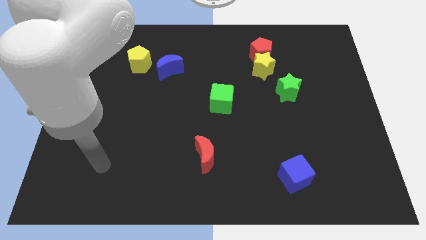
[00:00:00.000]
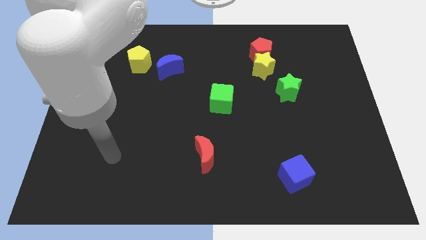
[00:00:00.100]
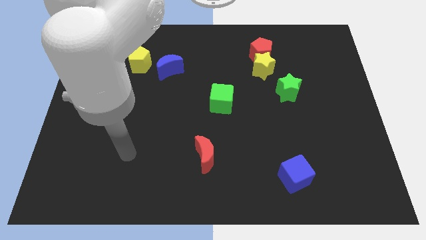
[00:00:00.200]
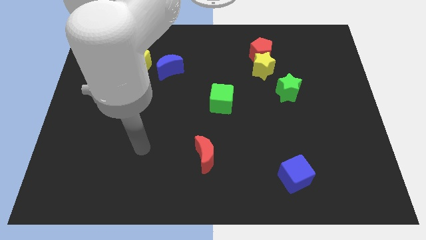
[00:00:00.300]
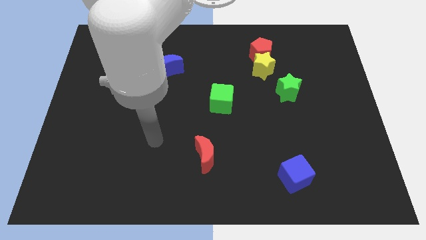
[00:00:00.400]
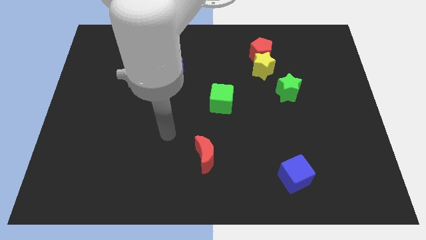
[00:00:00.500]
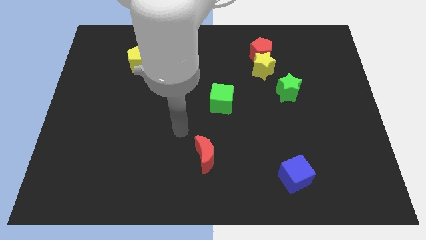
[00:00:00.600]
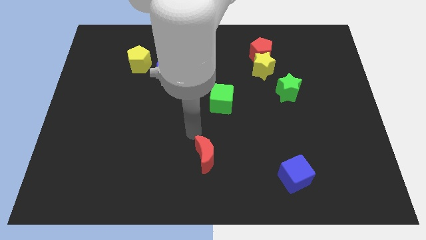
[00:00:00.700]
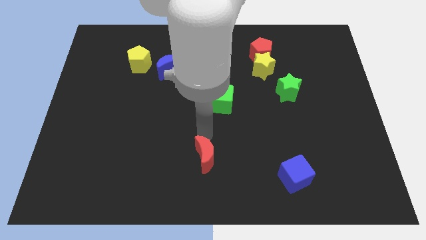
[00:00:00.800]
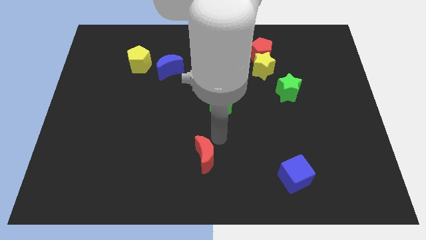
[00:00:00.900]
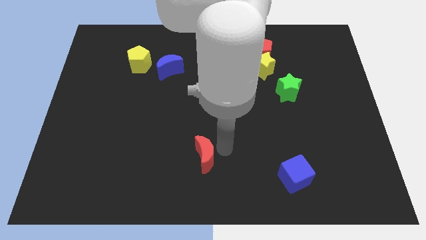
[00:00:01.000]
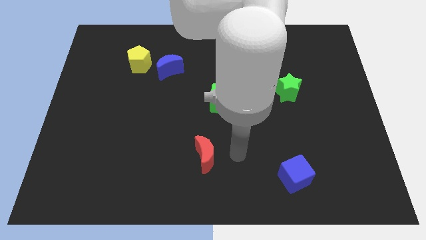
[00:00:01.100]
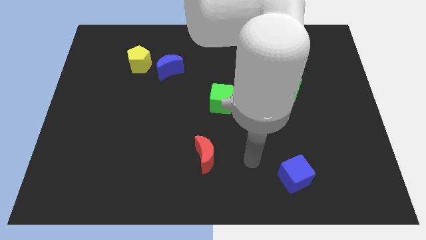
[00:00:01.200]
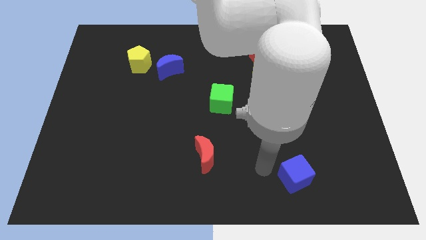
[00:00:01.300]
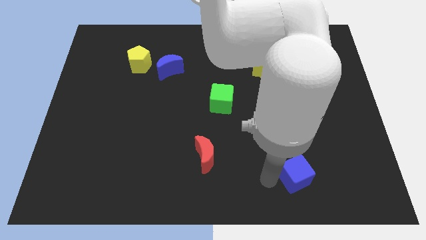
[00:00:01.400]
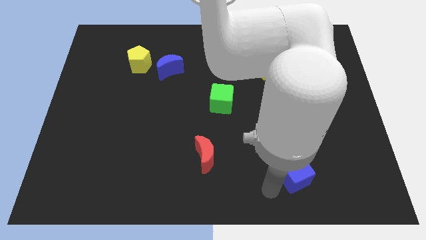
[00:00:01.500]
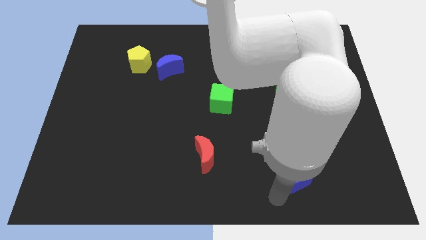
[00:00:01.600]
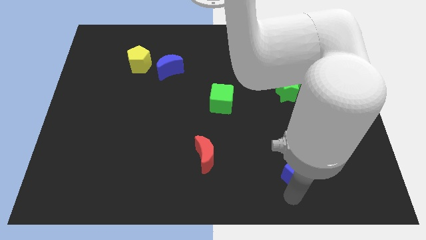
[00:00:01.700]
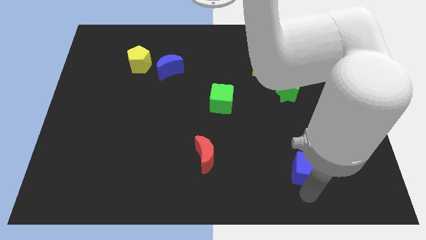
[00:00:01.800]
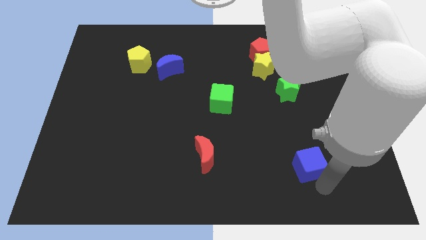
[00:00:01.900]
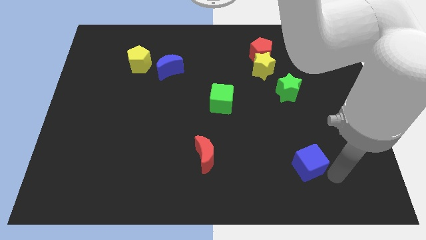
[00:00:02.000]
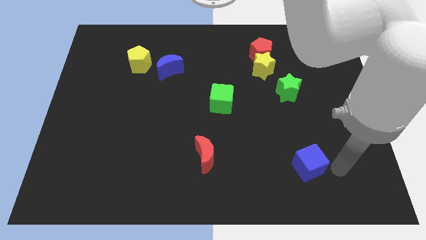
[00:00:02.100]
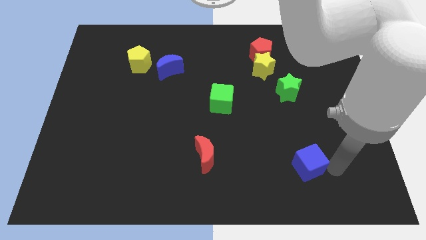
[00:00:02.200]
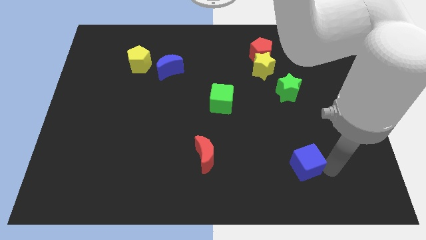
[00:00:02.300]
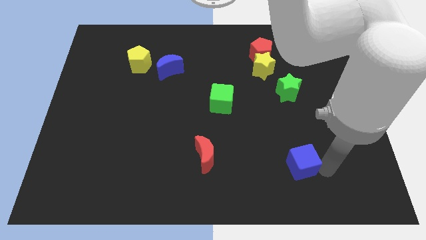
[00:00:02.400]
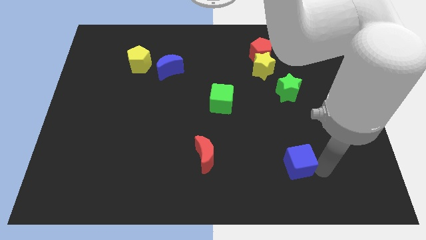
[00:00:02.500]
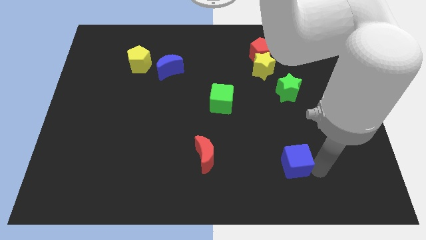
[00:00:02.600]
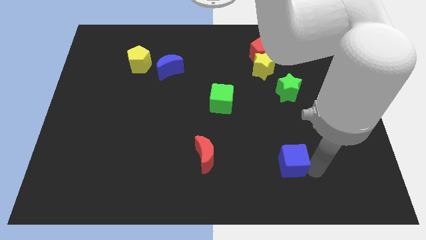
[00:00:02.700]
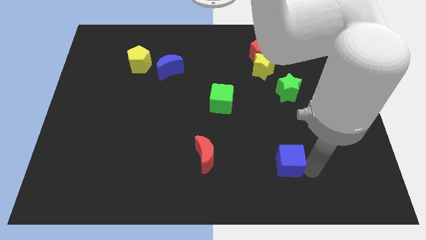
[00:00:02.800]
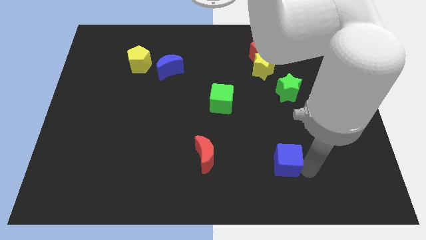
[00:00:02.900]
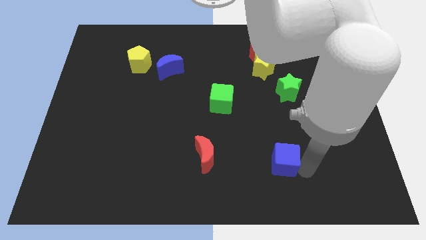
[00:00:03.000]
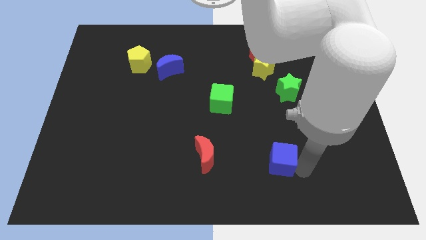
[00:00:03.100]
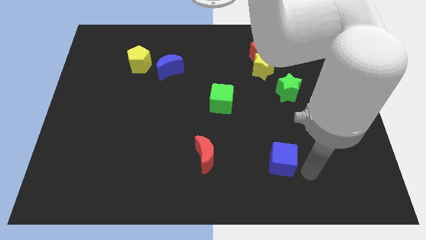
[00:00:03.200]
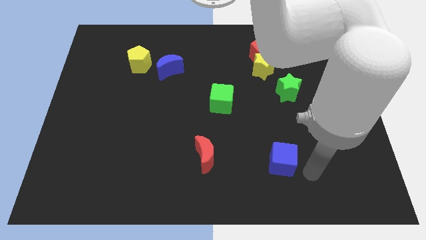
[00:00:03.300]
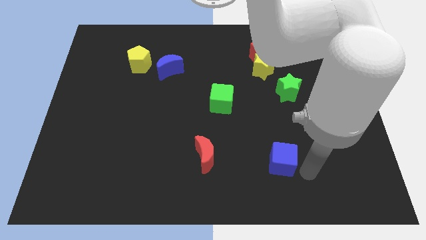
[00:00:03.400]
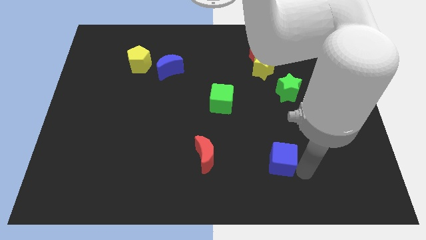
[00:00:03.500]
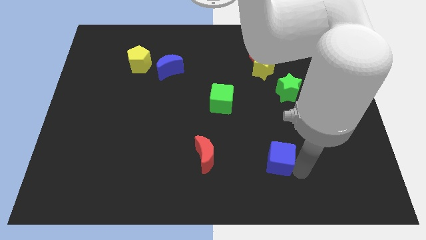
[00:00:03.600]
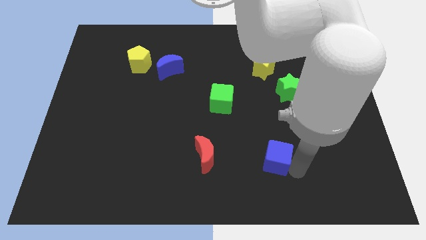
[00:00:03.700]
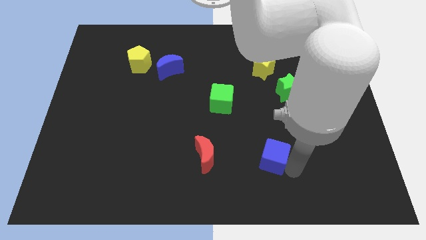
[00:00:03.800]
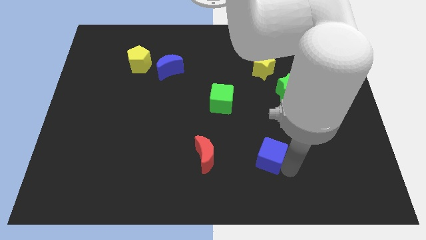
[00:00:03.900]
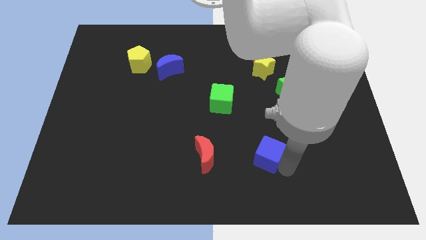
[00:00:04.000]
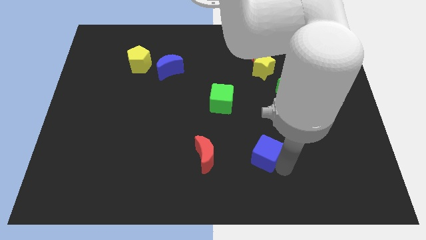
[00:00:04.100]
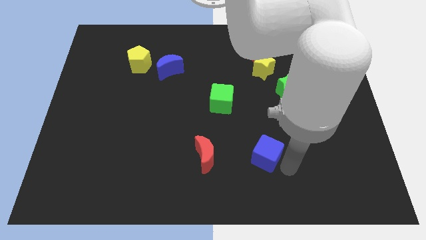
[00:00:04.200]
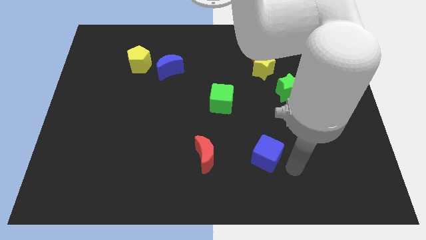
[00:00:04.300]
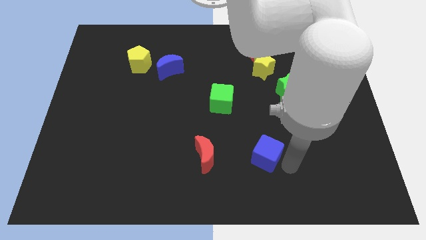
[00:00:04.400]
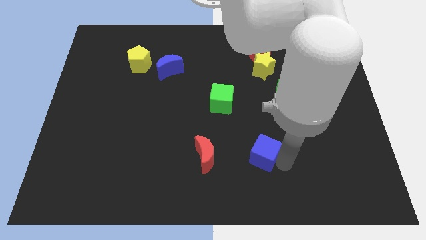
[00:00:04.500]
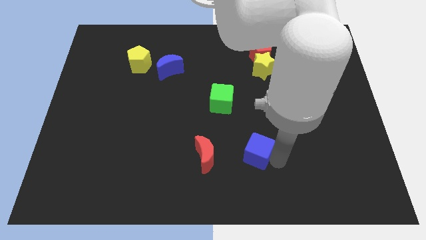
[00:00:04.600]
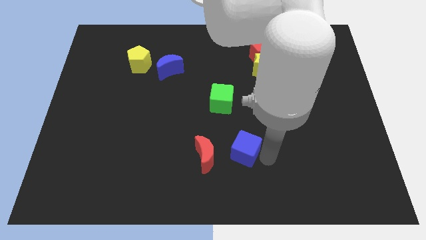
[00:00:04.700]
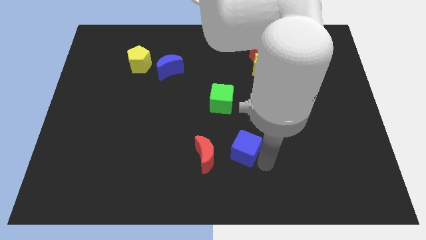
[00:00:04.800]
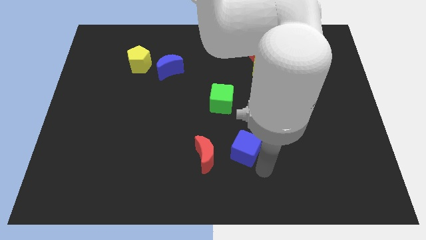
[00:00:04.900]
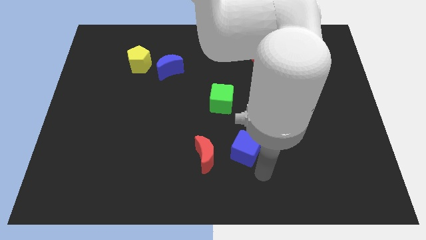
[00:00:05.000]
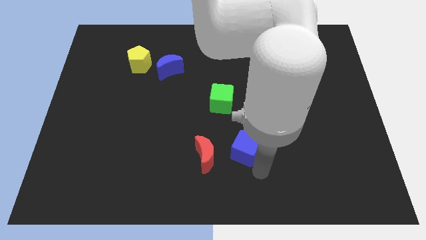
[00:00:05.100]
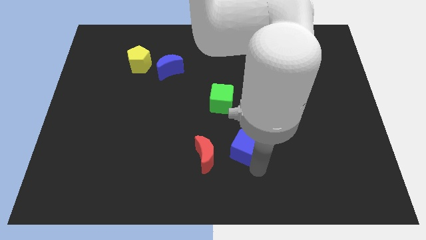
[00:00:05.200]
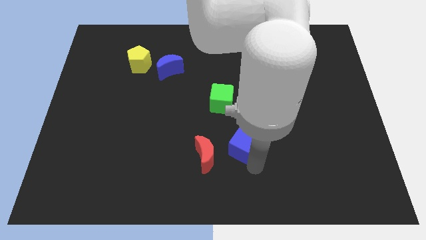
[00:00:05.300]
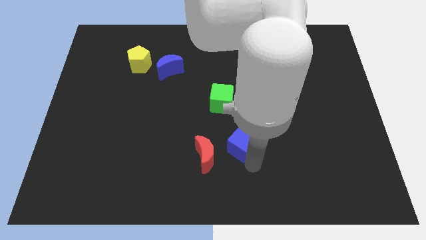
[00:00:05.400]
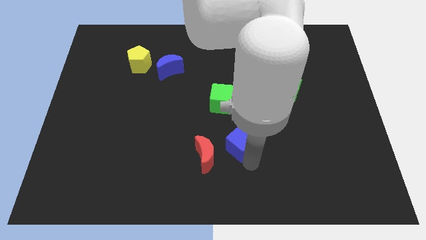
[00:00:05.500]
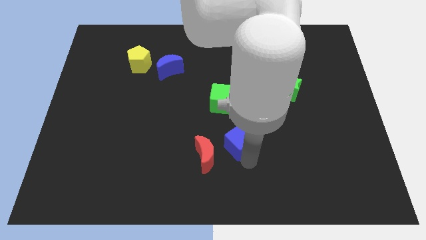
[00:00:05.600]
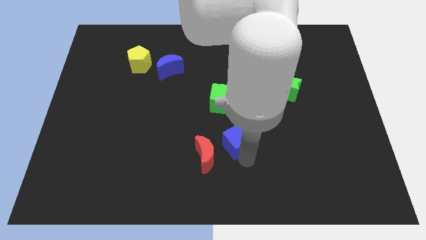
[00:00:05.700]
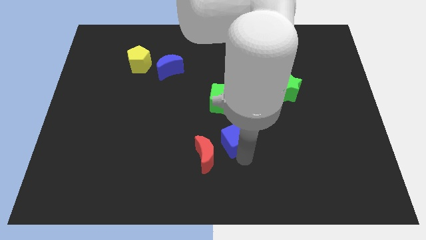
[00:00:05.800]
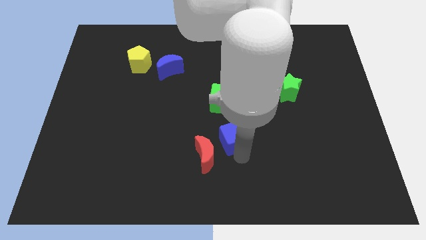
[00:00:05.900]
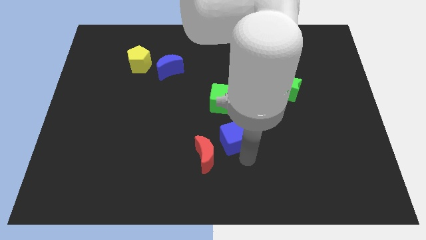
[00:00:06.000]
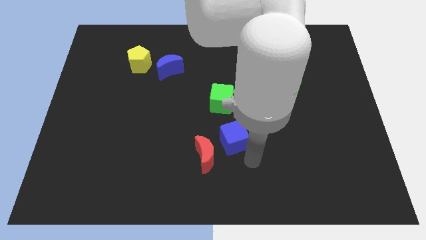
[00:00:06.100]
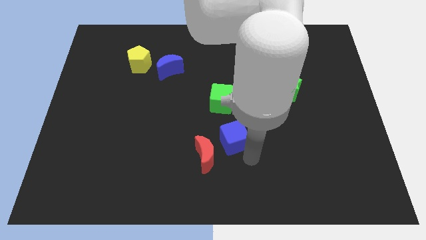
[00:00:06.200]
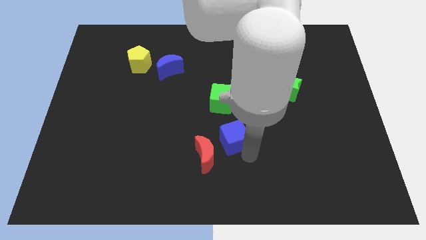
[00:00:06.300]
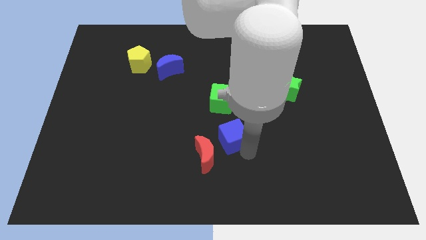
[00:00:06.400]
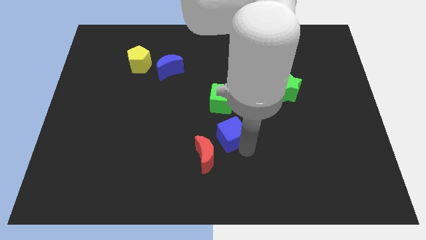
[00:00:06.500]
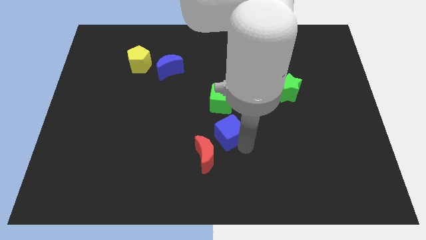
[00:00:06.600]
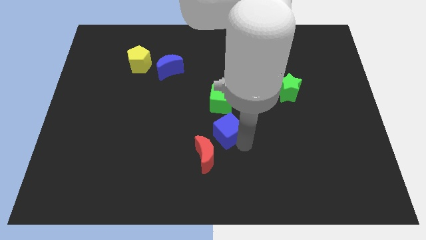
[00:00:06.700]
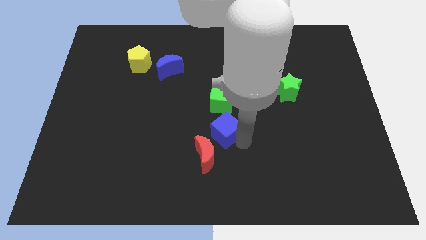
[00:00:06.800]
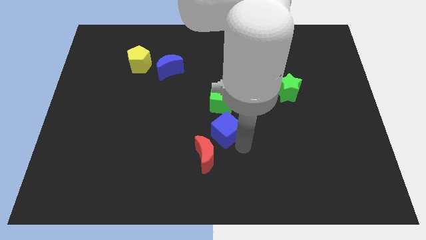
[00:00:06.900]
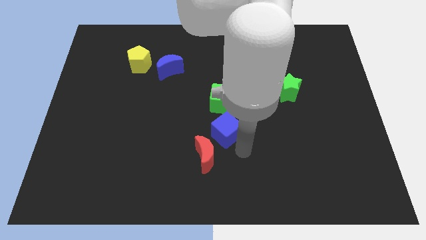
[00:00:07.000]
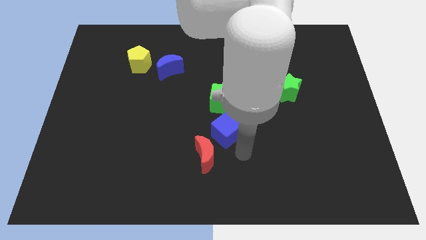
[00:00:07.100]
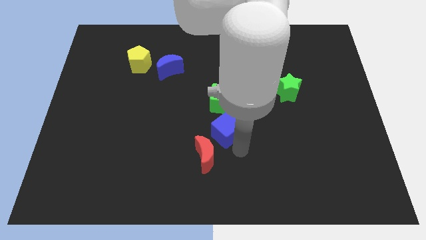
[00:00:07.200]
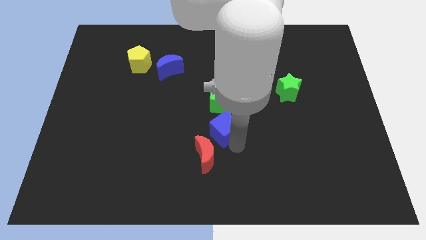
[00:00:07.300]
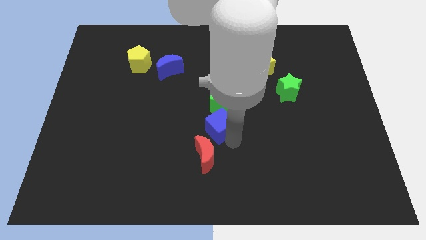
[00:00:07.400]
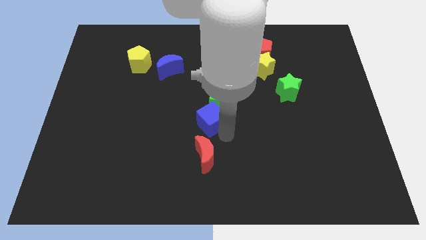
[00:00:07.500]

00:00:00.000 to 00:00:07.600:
move the blue cube diagonally upwards and left

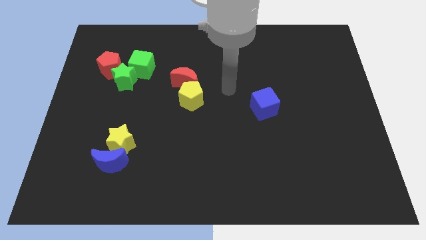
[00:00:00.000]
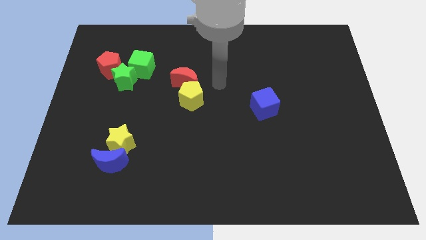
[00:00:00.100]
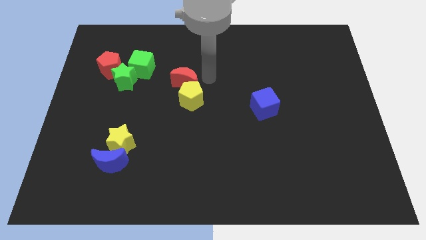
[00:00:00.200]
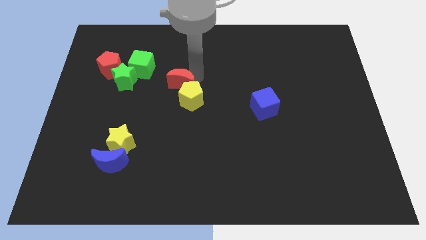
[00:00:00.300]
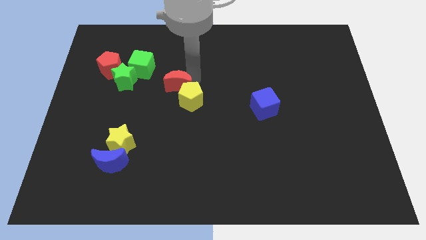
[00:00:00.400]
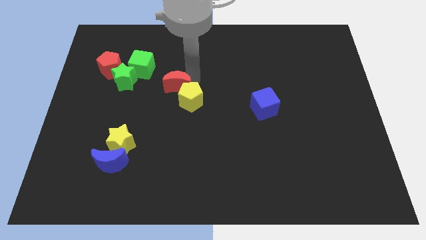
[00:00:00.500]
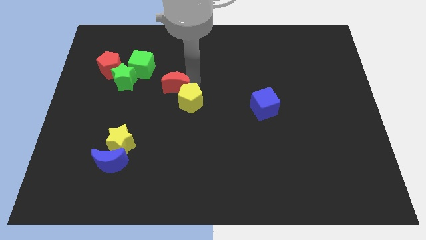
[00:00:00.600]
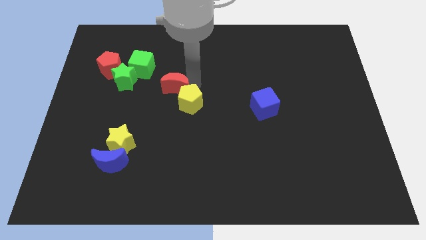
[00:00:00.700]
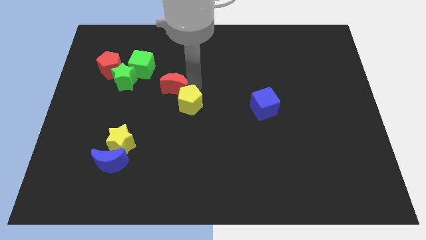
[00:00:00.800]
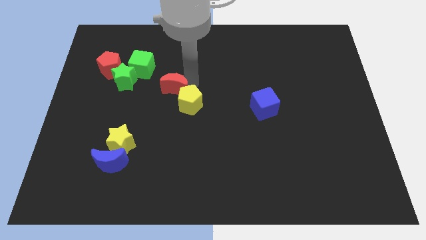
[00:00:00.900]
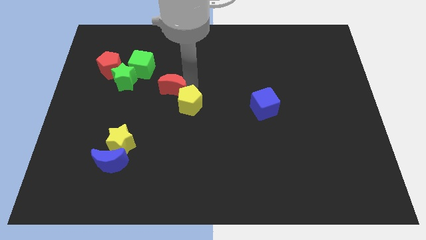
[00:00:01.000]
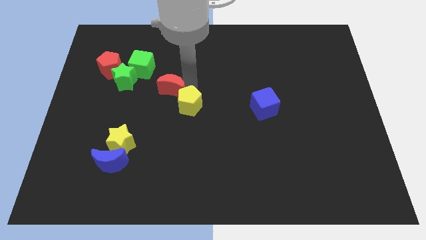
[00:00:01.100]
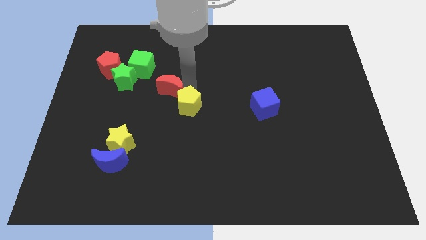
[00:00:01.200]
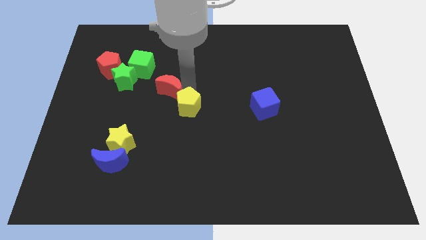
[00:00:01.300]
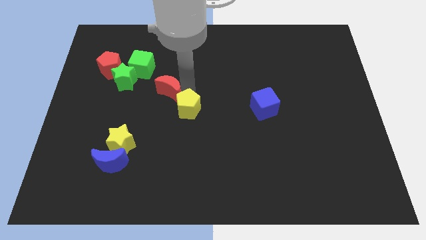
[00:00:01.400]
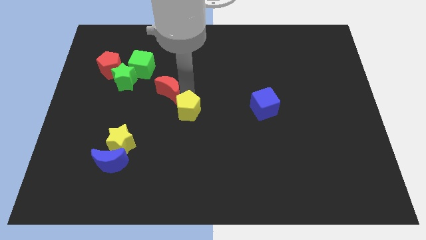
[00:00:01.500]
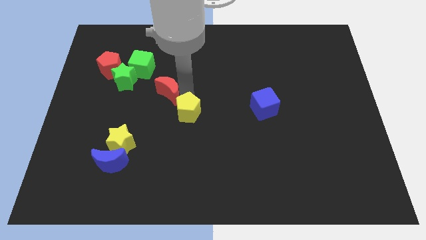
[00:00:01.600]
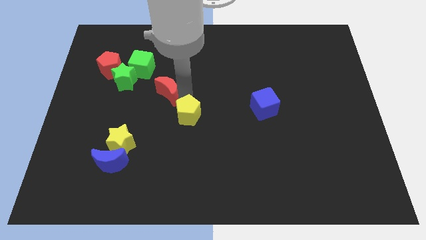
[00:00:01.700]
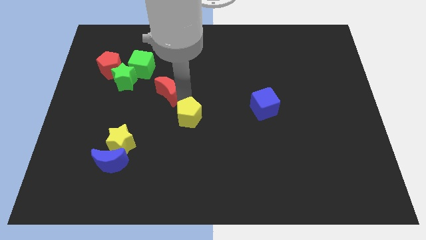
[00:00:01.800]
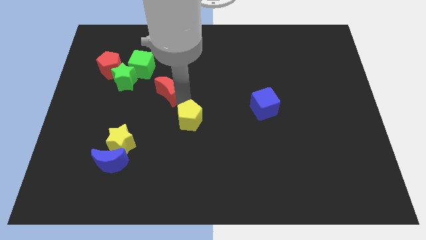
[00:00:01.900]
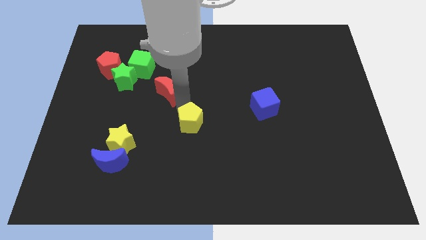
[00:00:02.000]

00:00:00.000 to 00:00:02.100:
push the yellow pentagon downwards a bit
